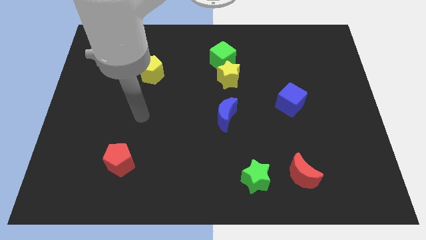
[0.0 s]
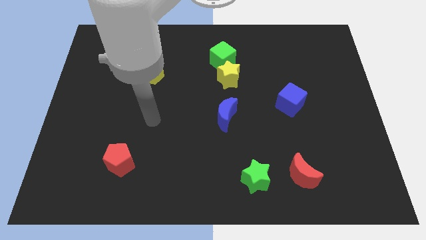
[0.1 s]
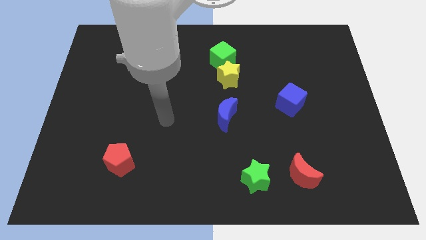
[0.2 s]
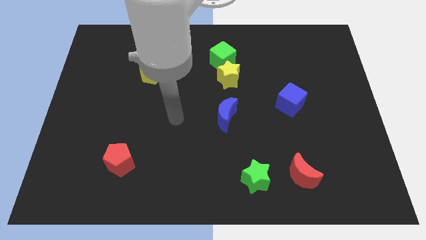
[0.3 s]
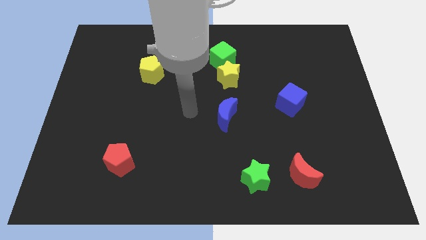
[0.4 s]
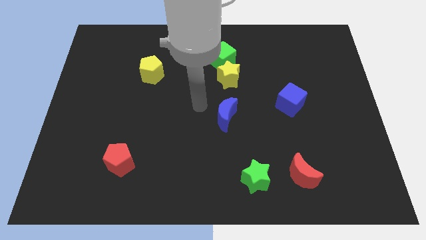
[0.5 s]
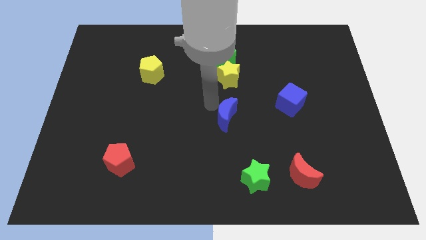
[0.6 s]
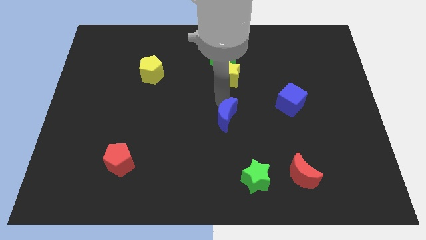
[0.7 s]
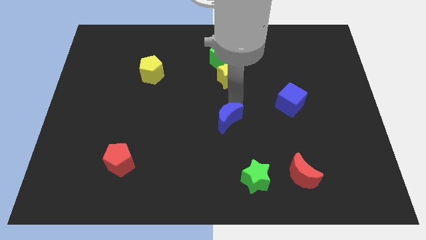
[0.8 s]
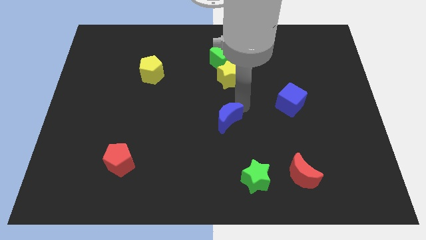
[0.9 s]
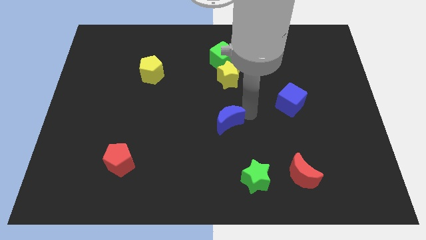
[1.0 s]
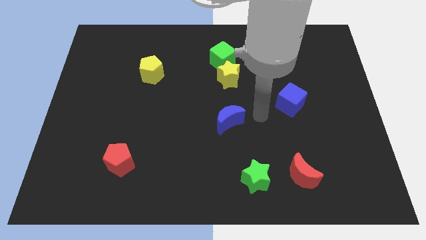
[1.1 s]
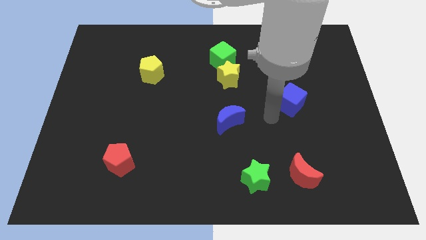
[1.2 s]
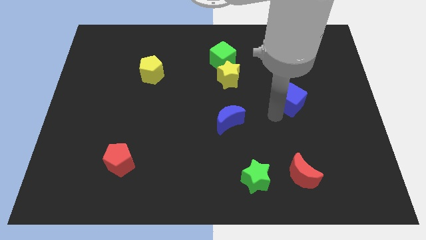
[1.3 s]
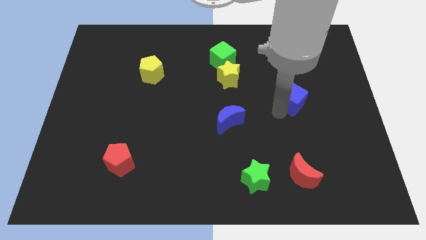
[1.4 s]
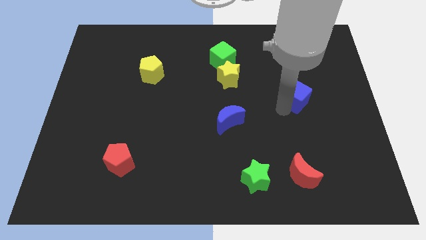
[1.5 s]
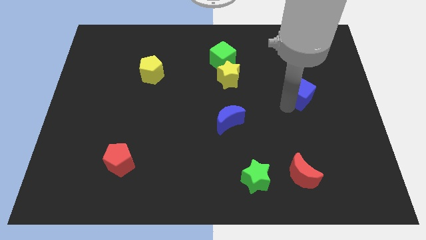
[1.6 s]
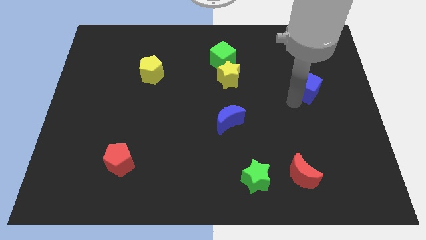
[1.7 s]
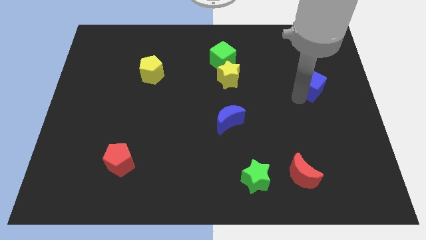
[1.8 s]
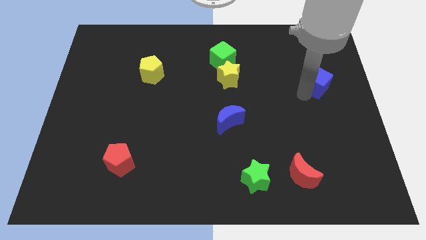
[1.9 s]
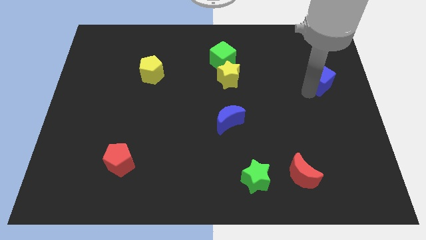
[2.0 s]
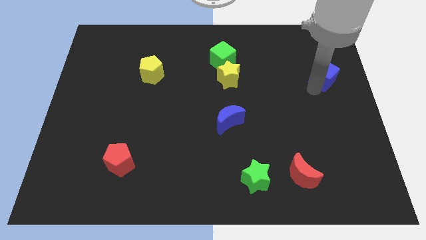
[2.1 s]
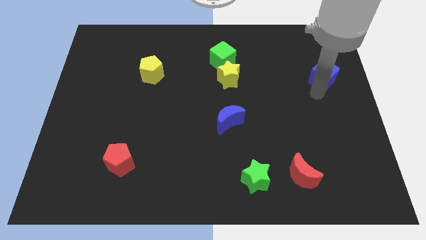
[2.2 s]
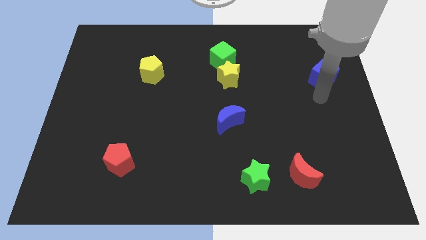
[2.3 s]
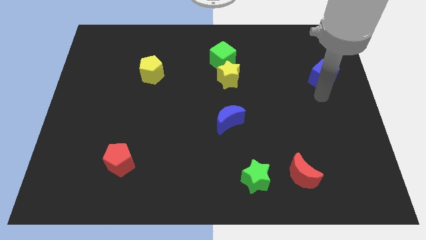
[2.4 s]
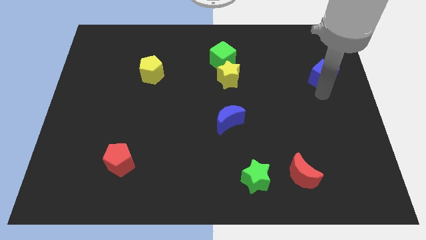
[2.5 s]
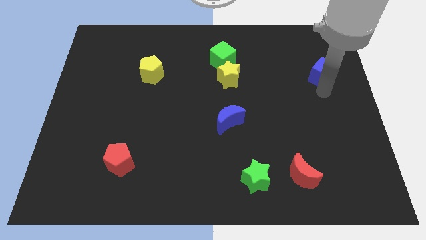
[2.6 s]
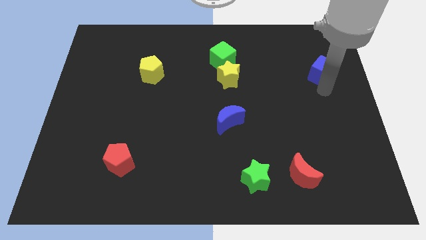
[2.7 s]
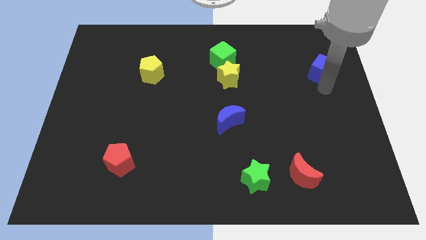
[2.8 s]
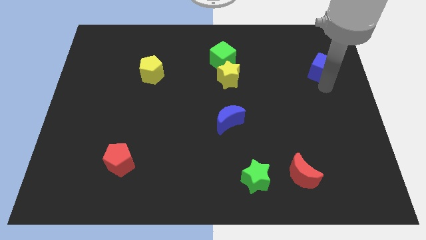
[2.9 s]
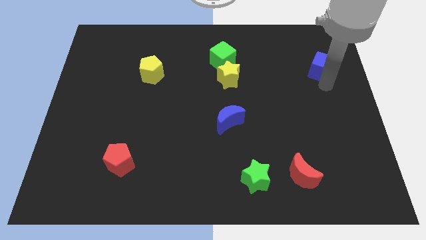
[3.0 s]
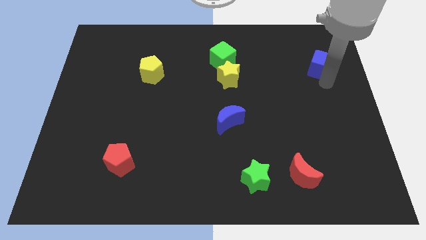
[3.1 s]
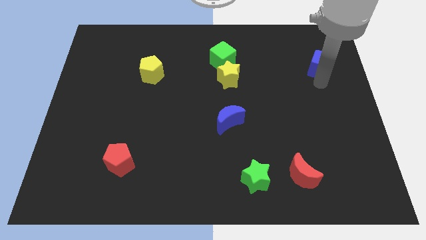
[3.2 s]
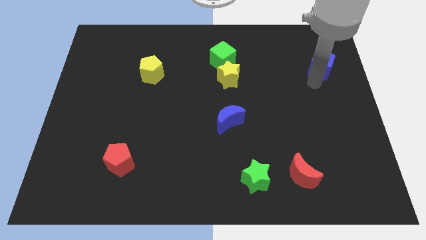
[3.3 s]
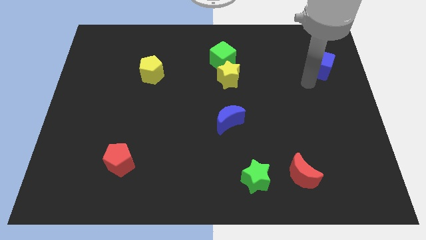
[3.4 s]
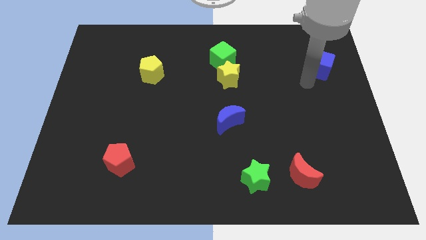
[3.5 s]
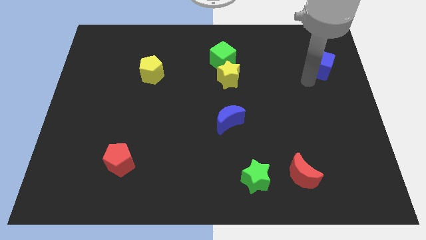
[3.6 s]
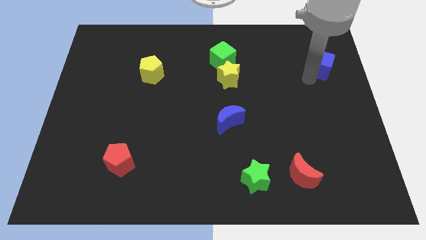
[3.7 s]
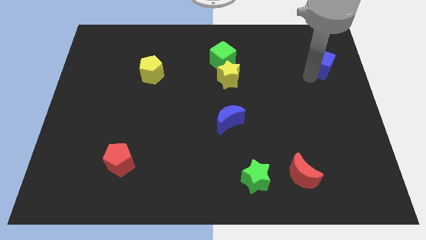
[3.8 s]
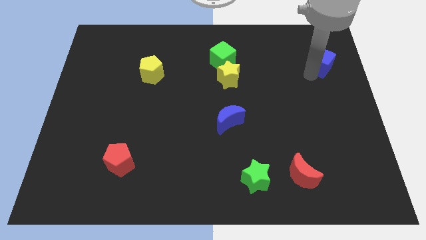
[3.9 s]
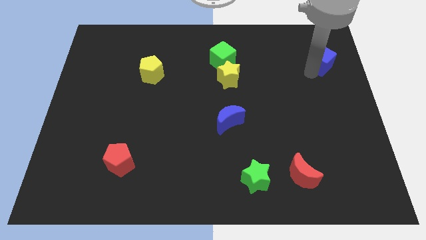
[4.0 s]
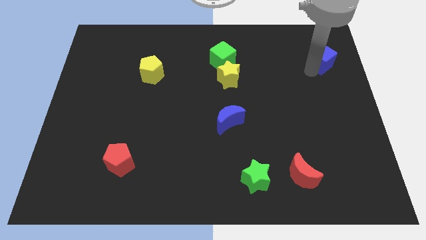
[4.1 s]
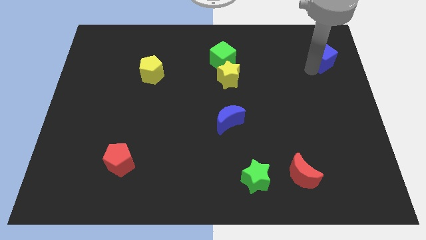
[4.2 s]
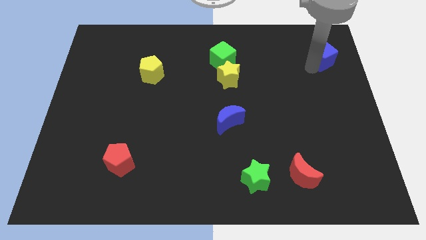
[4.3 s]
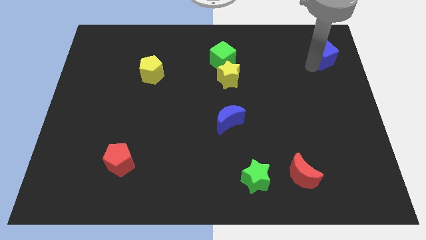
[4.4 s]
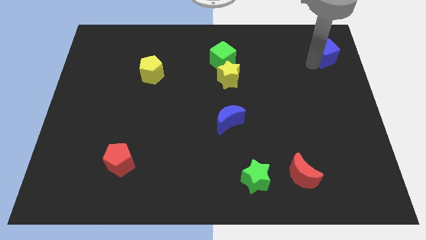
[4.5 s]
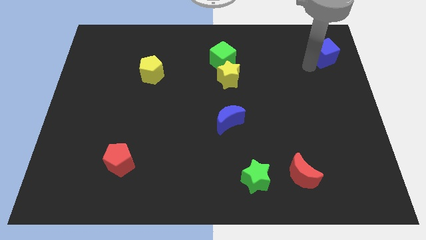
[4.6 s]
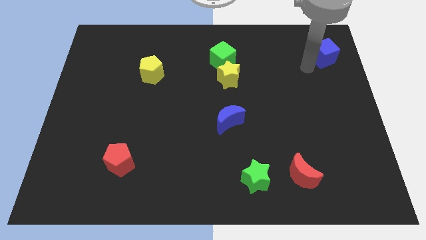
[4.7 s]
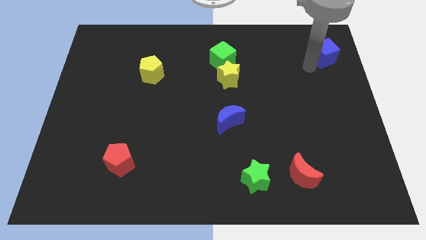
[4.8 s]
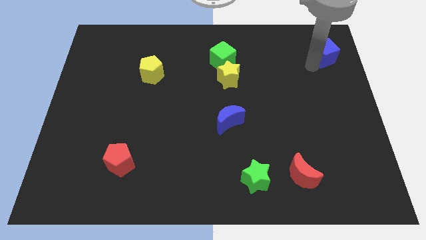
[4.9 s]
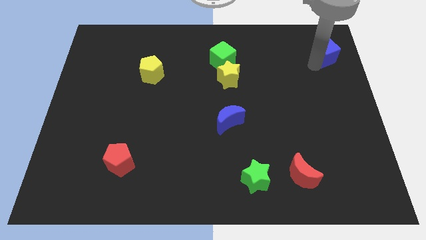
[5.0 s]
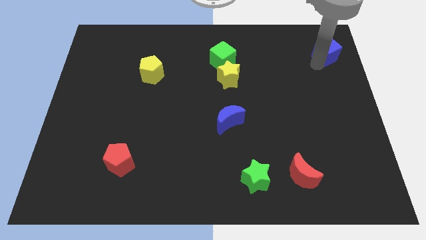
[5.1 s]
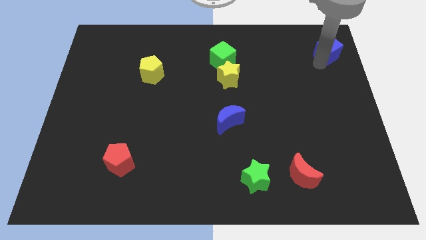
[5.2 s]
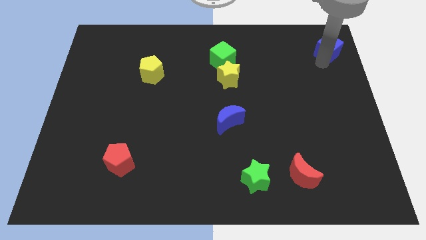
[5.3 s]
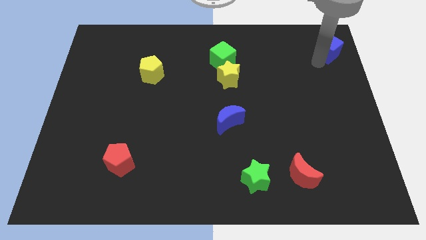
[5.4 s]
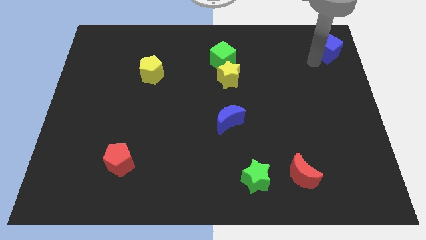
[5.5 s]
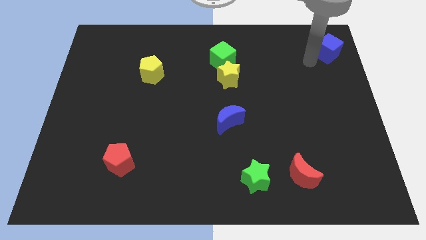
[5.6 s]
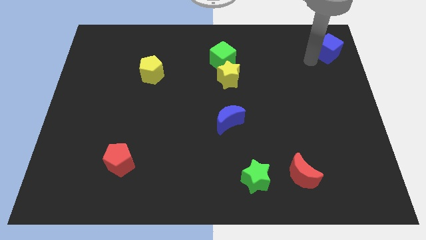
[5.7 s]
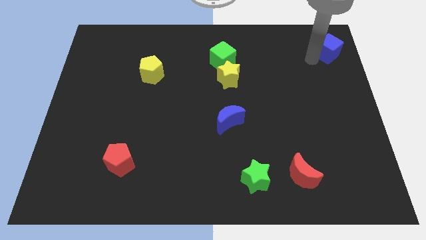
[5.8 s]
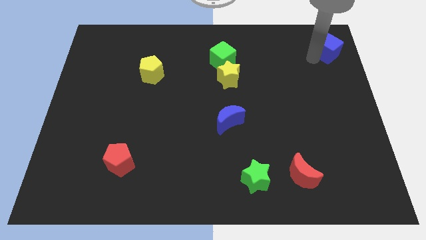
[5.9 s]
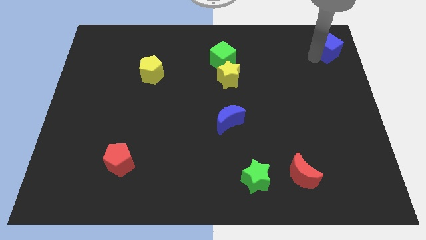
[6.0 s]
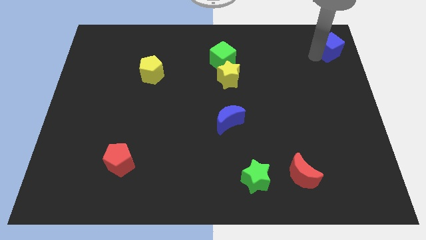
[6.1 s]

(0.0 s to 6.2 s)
push the blue cube to the top right
